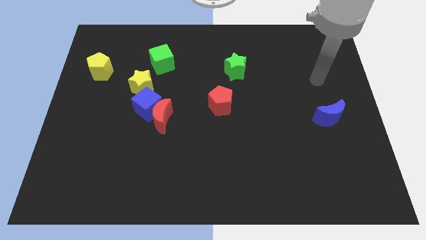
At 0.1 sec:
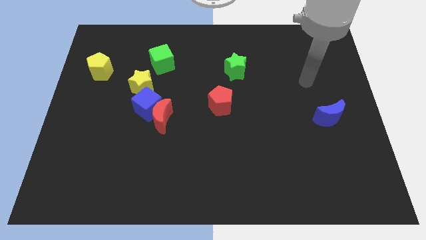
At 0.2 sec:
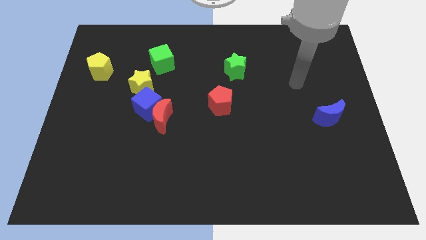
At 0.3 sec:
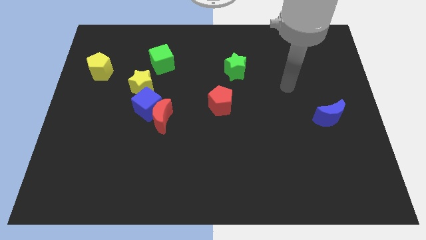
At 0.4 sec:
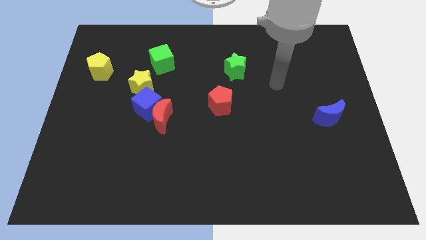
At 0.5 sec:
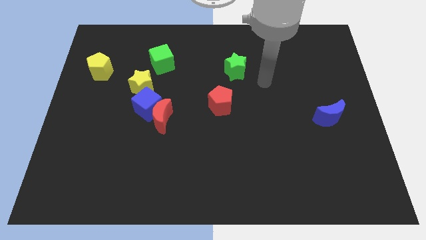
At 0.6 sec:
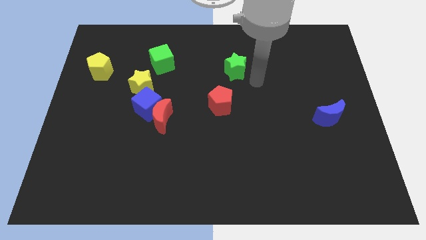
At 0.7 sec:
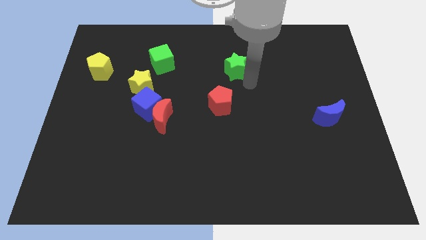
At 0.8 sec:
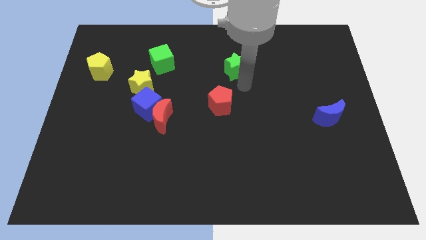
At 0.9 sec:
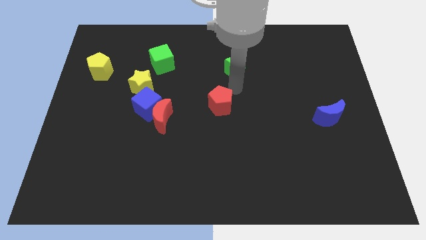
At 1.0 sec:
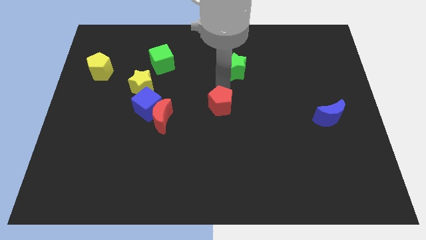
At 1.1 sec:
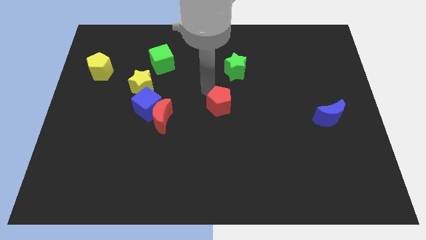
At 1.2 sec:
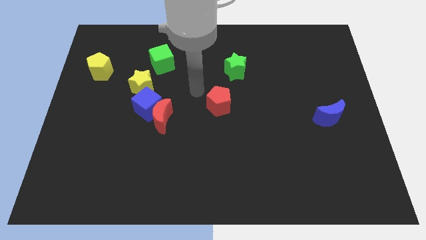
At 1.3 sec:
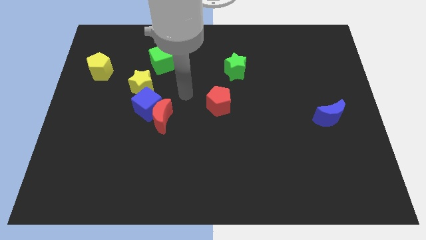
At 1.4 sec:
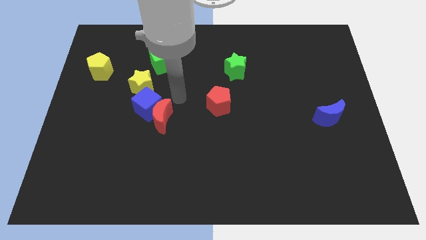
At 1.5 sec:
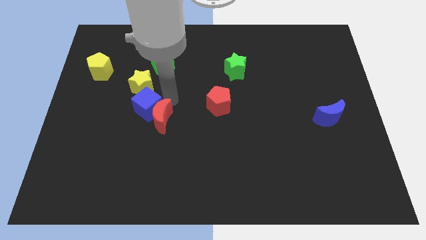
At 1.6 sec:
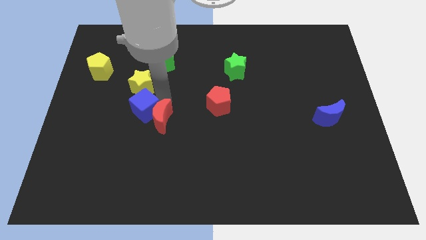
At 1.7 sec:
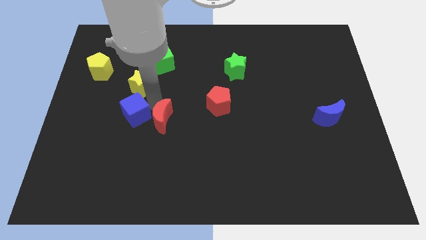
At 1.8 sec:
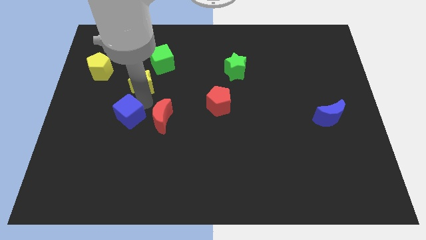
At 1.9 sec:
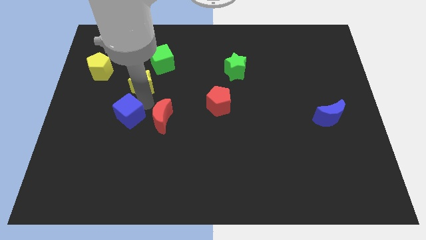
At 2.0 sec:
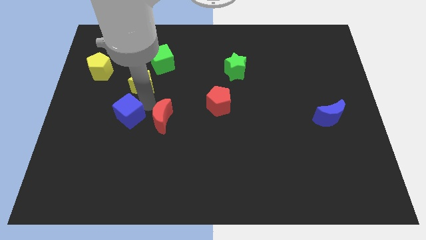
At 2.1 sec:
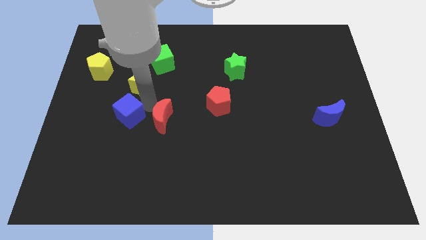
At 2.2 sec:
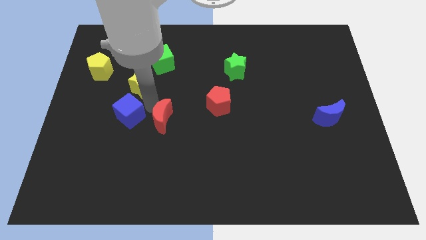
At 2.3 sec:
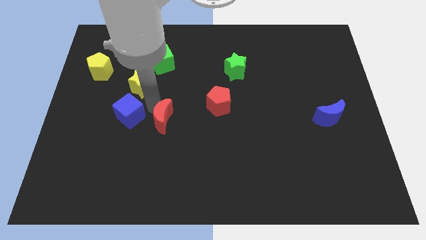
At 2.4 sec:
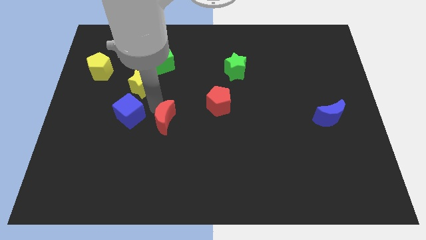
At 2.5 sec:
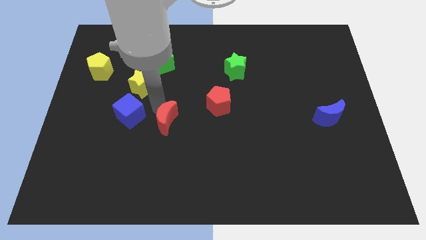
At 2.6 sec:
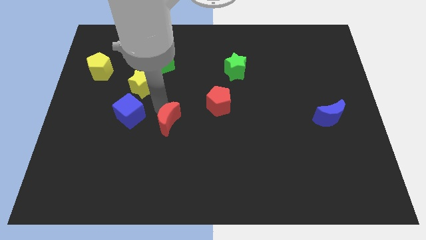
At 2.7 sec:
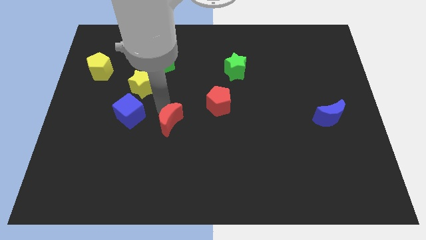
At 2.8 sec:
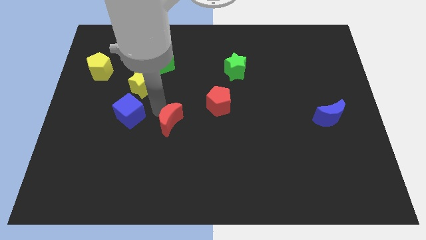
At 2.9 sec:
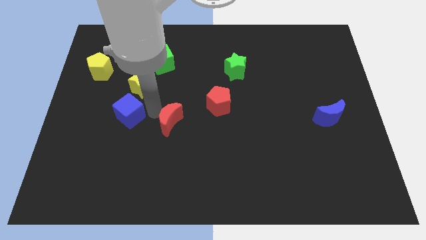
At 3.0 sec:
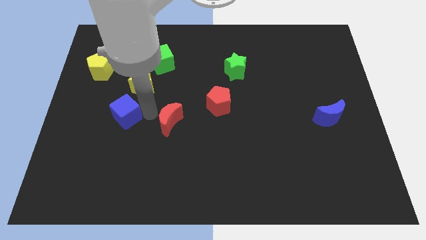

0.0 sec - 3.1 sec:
move the red moon away from the blue cube

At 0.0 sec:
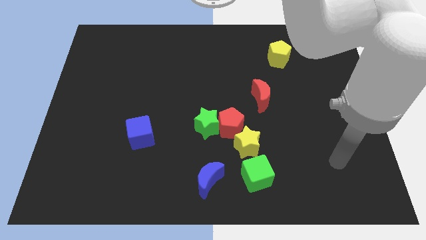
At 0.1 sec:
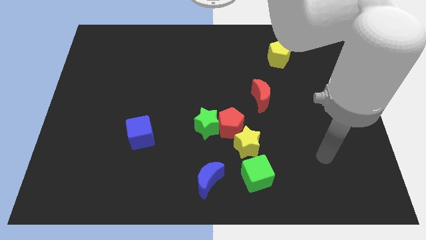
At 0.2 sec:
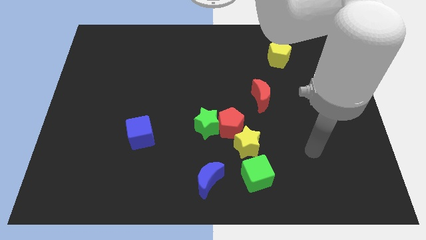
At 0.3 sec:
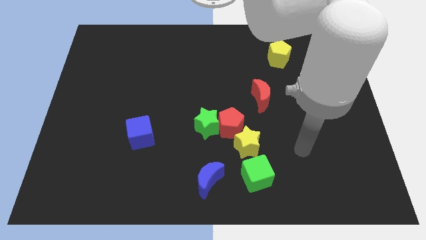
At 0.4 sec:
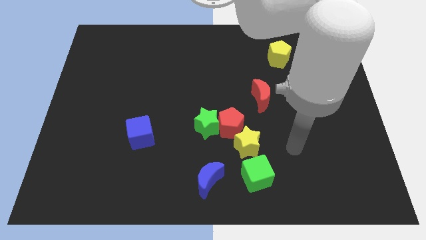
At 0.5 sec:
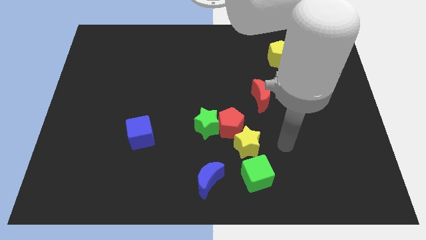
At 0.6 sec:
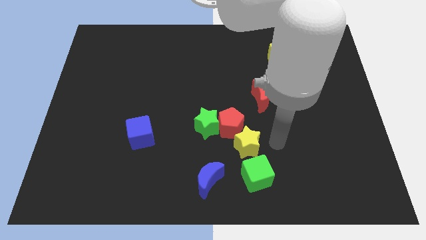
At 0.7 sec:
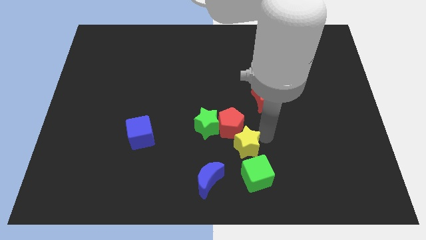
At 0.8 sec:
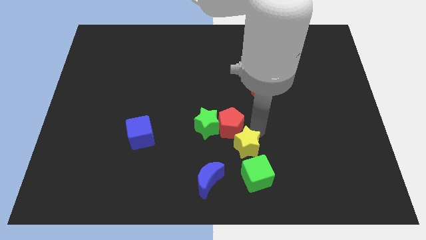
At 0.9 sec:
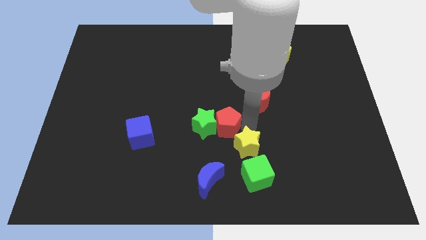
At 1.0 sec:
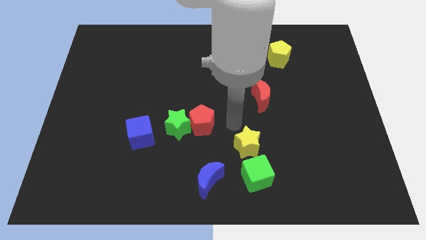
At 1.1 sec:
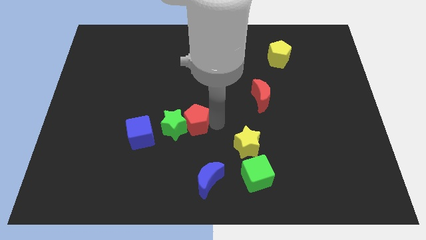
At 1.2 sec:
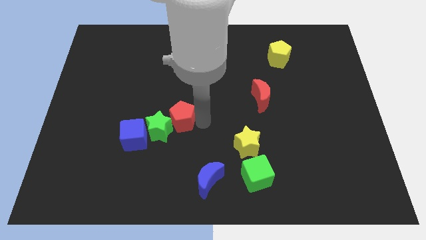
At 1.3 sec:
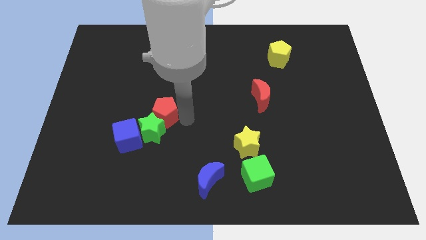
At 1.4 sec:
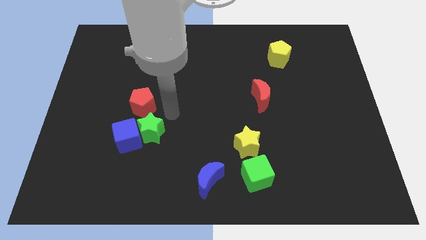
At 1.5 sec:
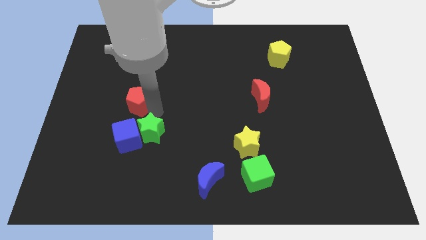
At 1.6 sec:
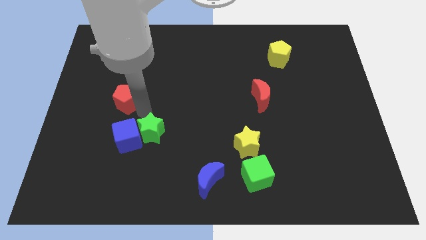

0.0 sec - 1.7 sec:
move the green star away from the red pentagon

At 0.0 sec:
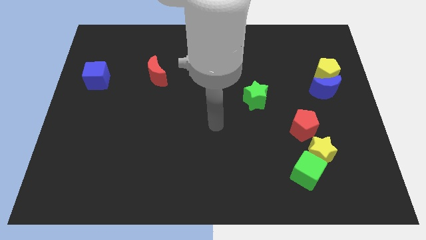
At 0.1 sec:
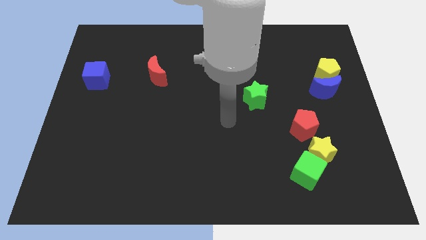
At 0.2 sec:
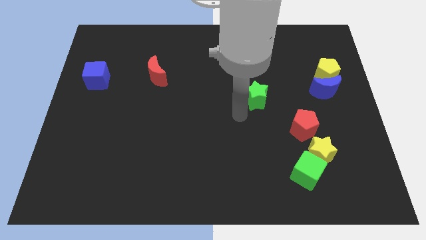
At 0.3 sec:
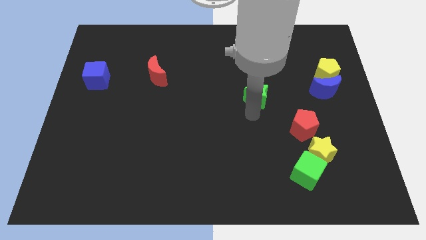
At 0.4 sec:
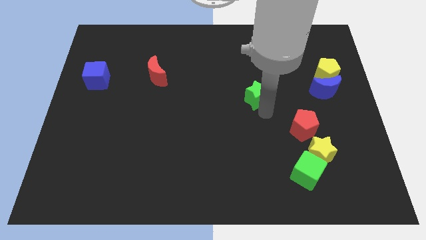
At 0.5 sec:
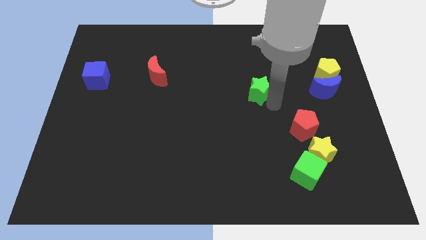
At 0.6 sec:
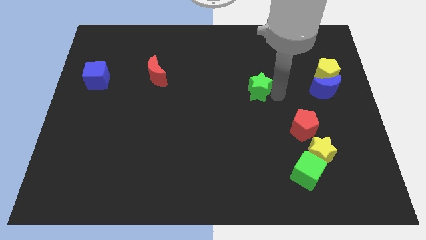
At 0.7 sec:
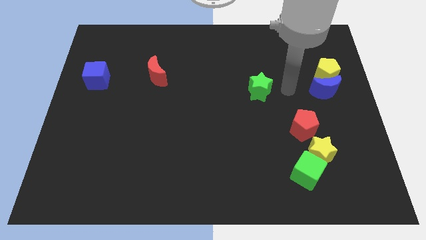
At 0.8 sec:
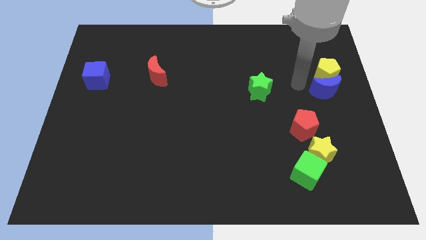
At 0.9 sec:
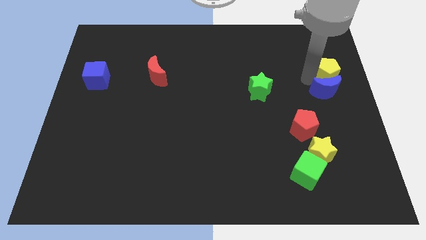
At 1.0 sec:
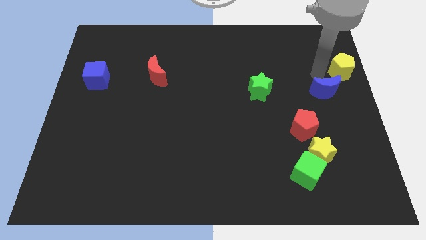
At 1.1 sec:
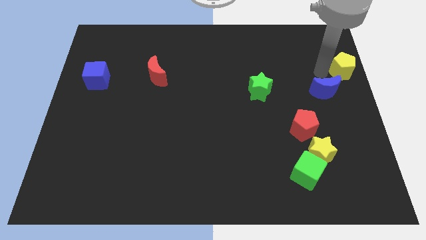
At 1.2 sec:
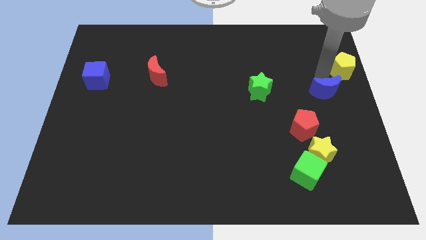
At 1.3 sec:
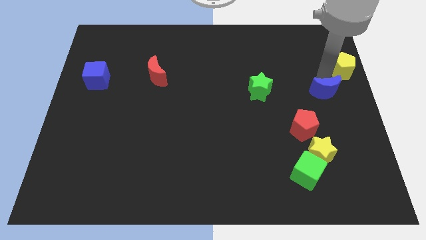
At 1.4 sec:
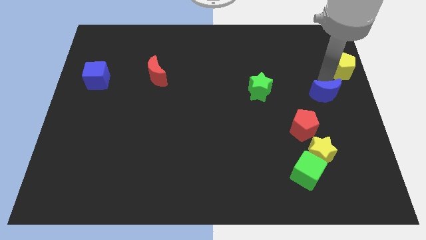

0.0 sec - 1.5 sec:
move the blue moon away from the yellow pentagon

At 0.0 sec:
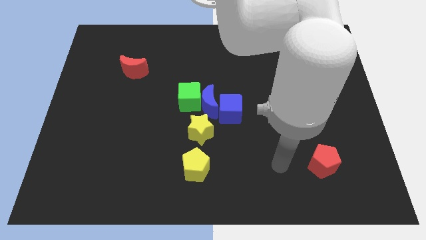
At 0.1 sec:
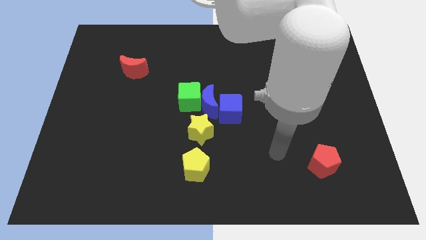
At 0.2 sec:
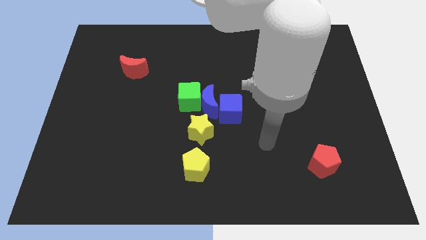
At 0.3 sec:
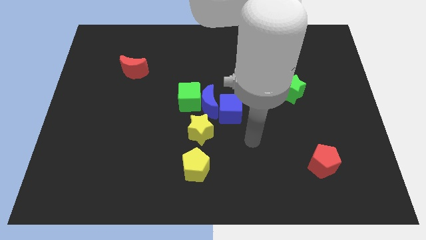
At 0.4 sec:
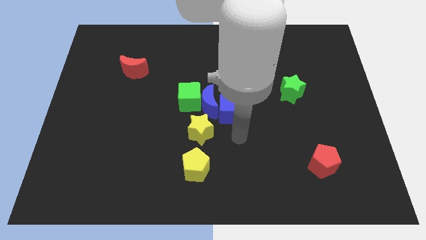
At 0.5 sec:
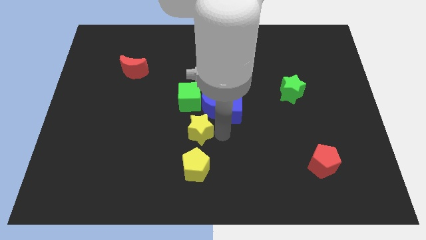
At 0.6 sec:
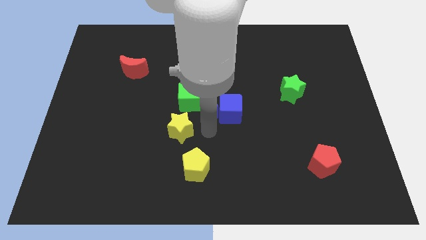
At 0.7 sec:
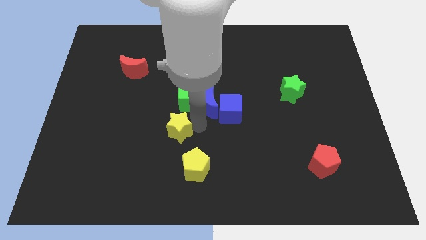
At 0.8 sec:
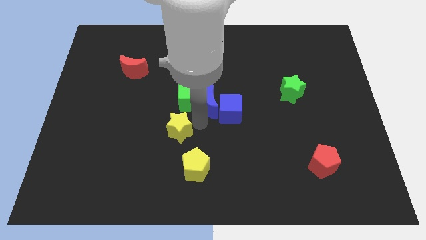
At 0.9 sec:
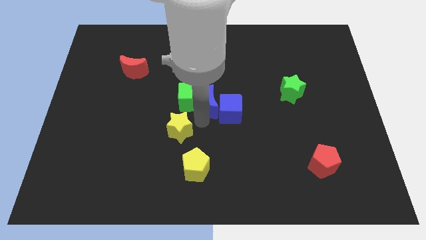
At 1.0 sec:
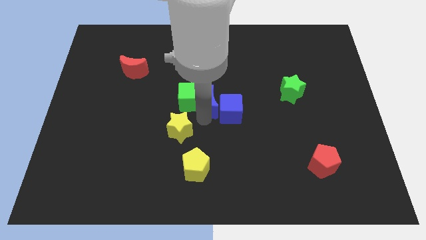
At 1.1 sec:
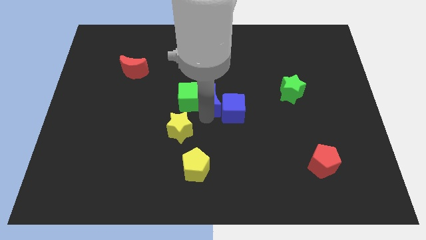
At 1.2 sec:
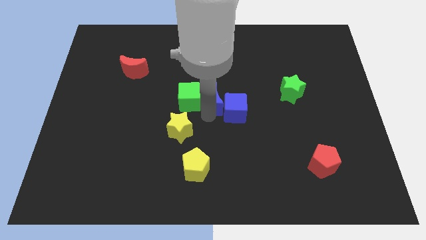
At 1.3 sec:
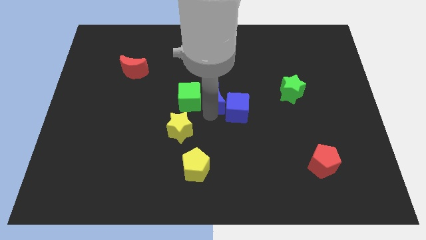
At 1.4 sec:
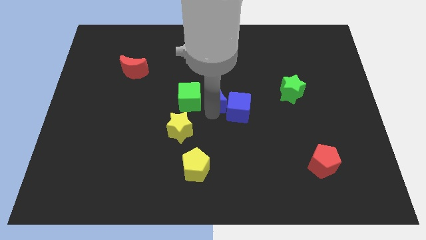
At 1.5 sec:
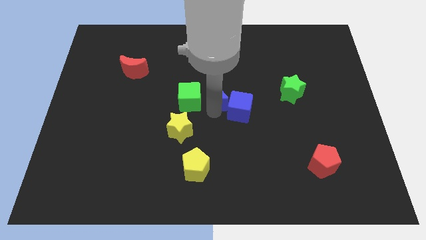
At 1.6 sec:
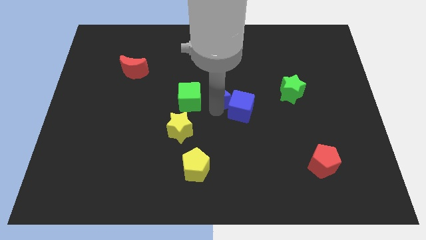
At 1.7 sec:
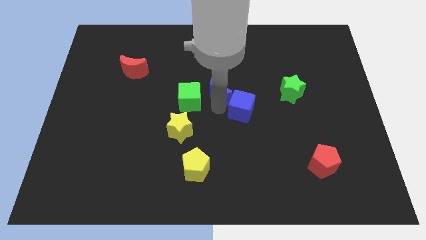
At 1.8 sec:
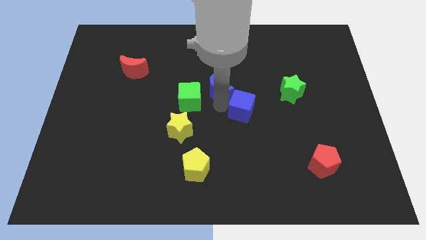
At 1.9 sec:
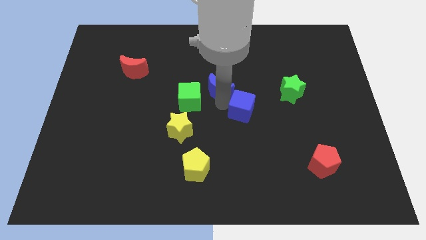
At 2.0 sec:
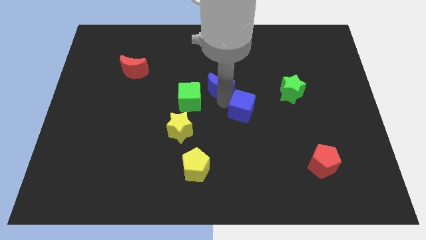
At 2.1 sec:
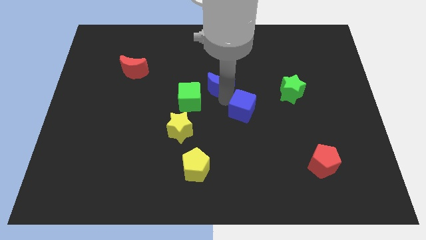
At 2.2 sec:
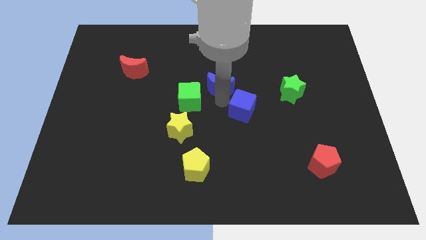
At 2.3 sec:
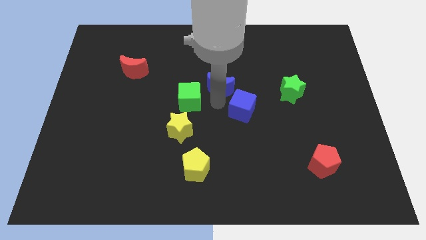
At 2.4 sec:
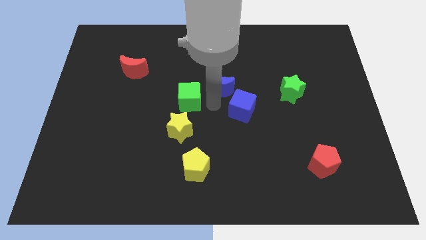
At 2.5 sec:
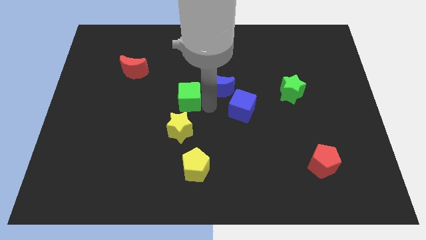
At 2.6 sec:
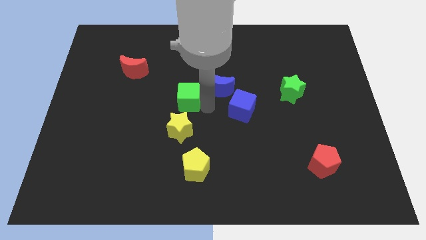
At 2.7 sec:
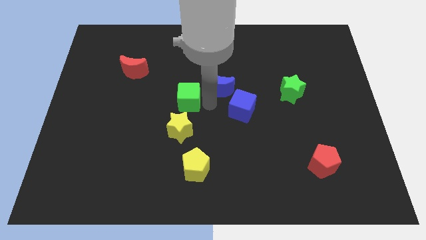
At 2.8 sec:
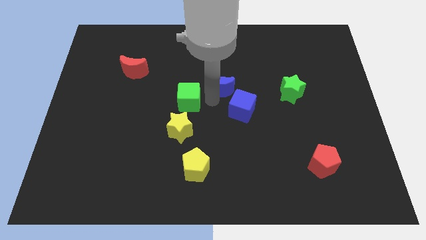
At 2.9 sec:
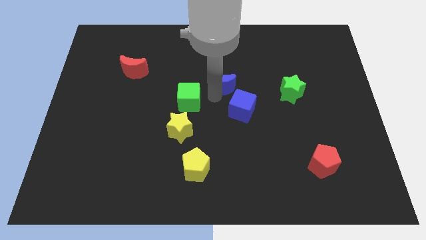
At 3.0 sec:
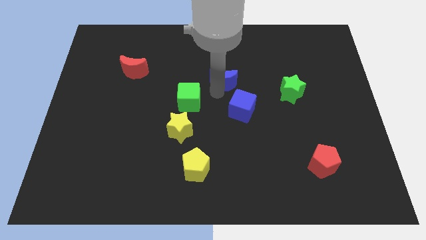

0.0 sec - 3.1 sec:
move the blue moon away from the green cube, blue cube, and yellow star
